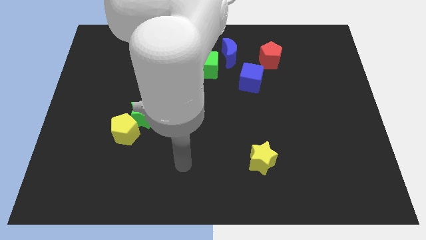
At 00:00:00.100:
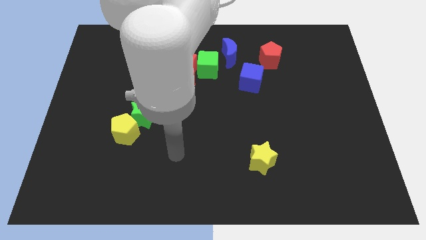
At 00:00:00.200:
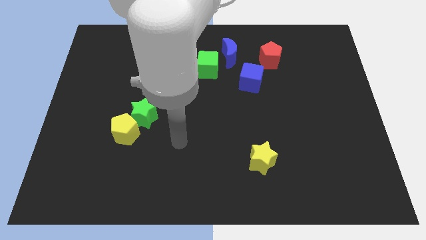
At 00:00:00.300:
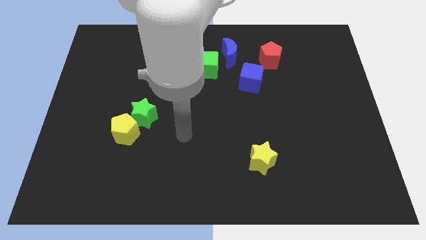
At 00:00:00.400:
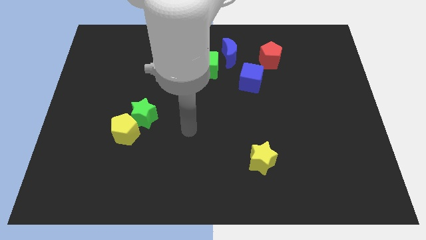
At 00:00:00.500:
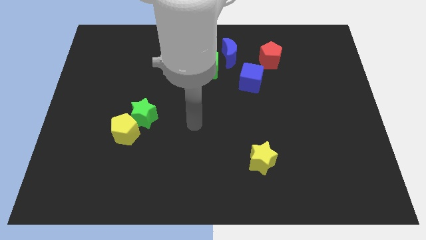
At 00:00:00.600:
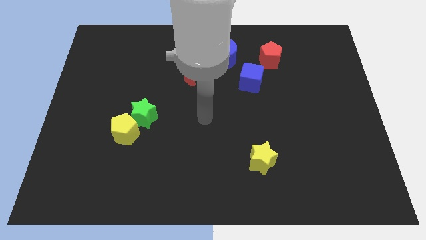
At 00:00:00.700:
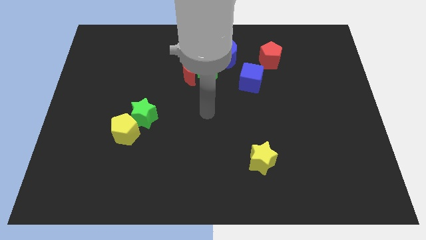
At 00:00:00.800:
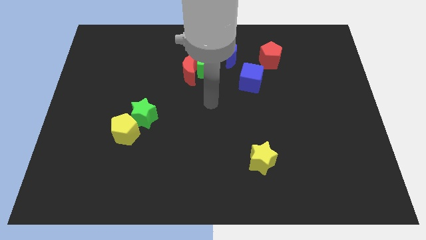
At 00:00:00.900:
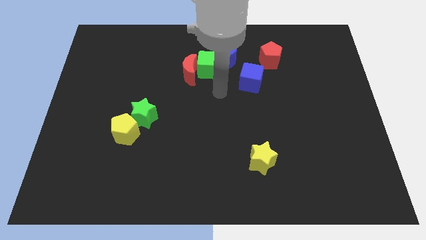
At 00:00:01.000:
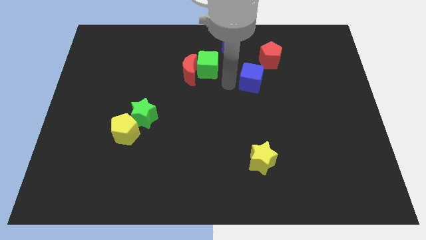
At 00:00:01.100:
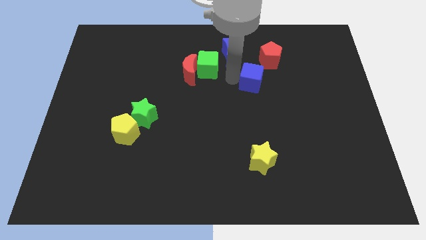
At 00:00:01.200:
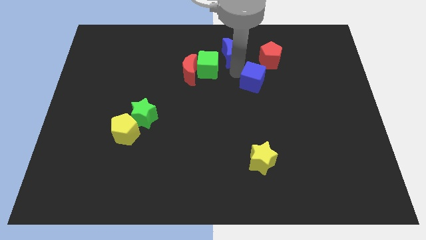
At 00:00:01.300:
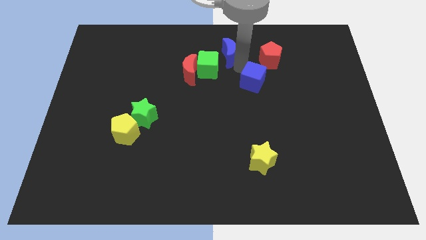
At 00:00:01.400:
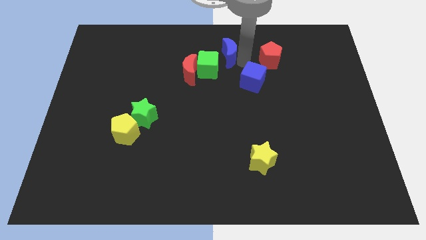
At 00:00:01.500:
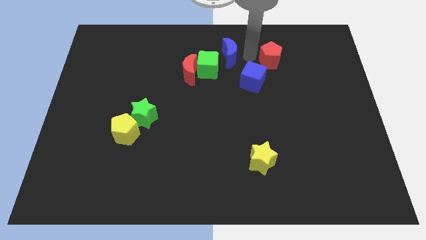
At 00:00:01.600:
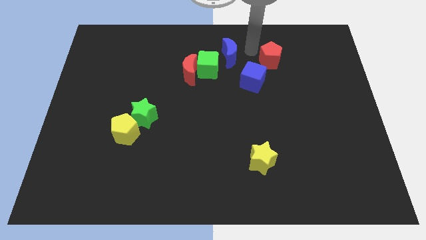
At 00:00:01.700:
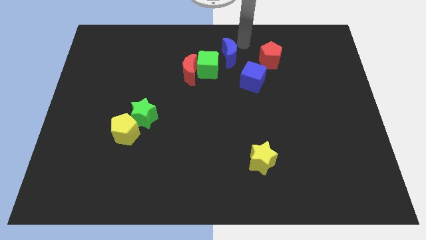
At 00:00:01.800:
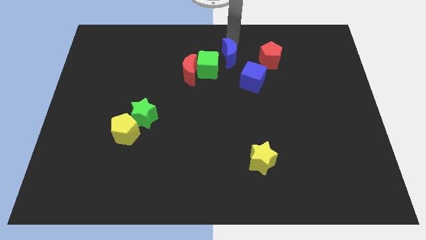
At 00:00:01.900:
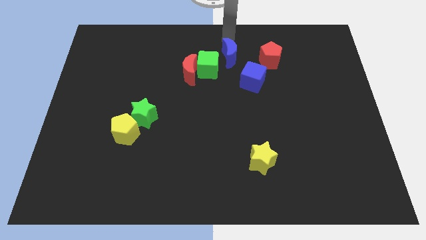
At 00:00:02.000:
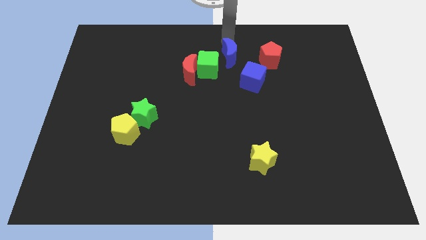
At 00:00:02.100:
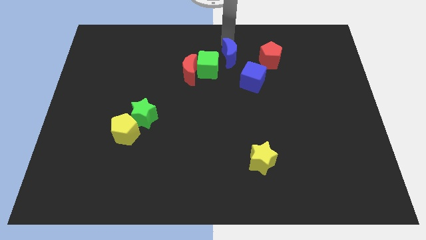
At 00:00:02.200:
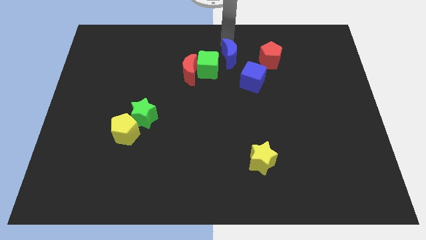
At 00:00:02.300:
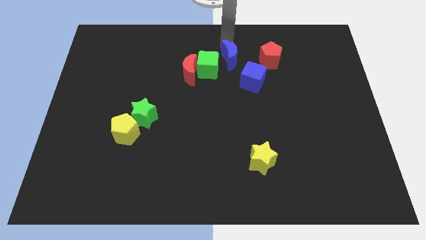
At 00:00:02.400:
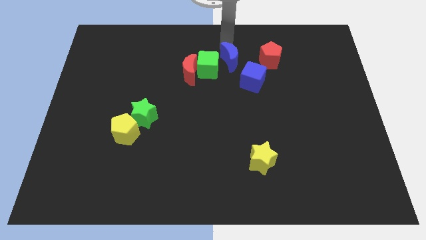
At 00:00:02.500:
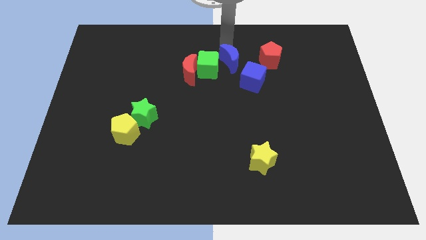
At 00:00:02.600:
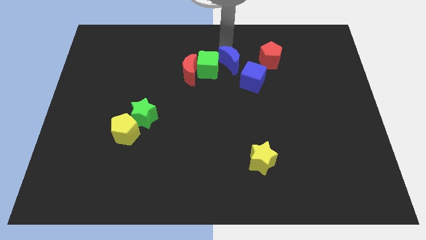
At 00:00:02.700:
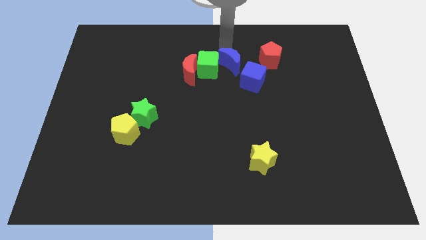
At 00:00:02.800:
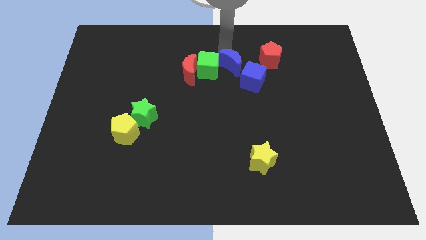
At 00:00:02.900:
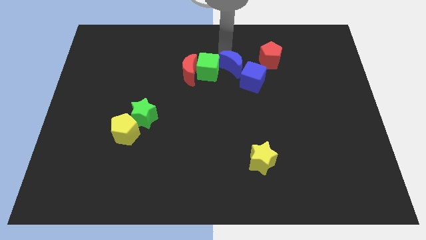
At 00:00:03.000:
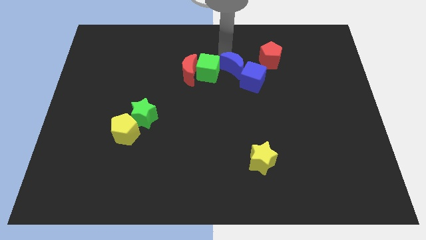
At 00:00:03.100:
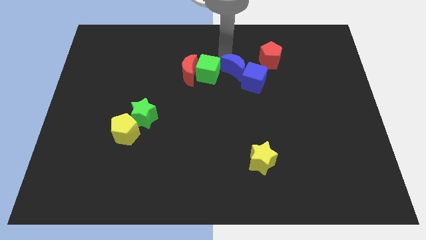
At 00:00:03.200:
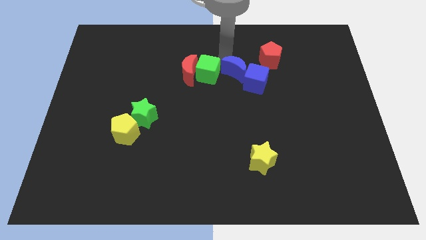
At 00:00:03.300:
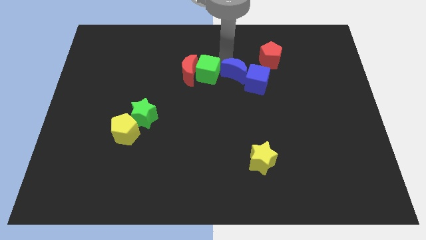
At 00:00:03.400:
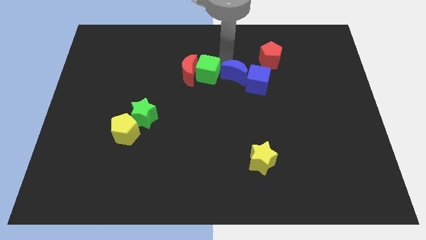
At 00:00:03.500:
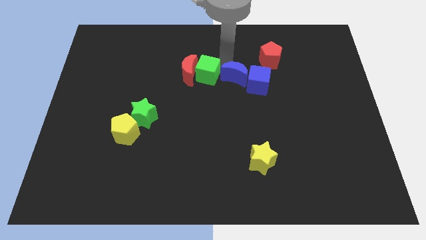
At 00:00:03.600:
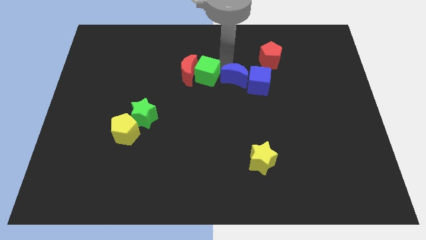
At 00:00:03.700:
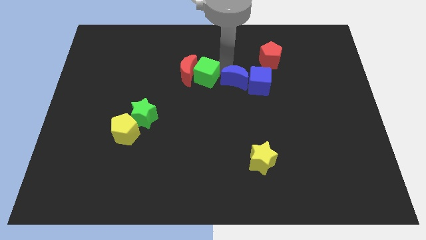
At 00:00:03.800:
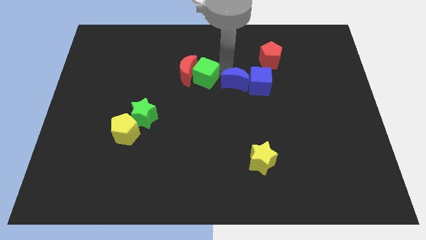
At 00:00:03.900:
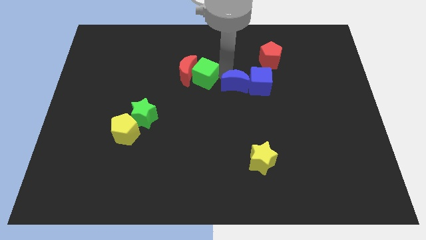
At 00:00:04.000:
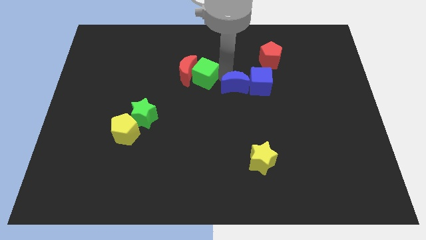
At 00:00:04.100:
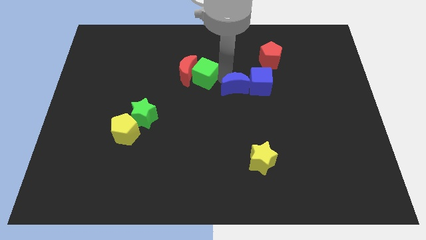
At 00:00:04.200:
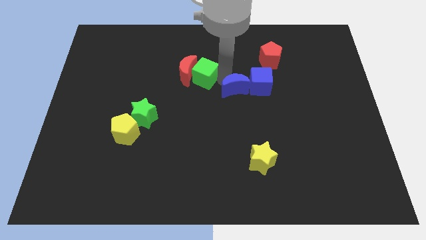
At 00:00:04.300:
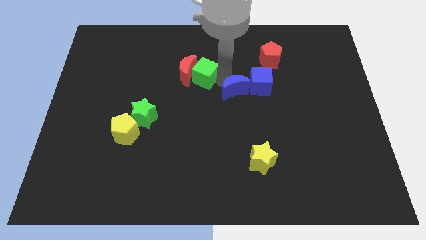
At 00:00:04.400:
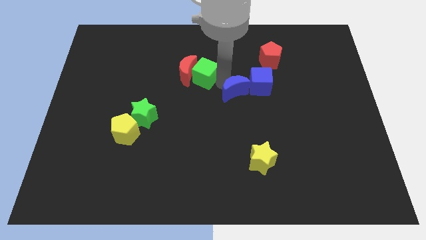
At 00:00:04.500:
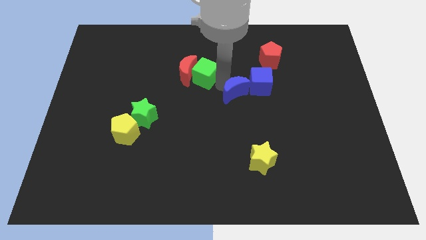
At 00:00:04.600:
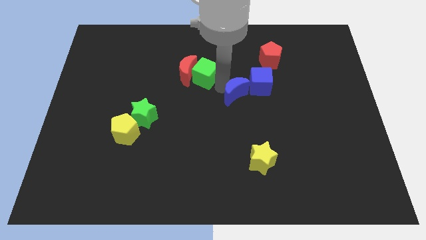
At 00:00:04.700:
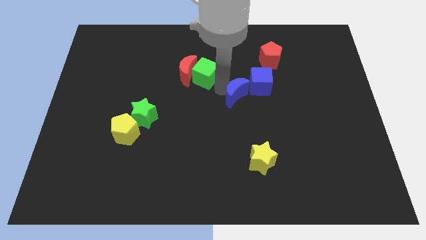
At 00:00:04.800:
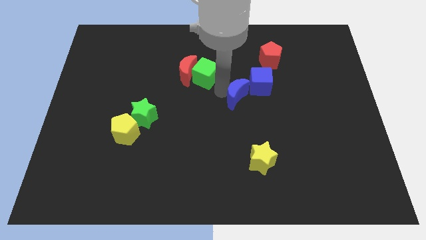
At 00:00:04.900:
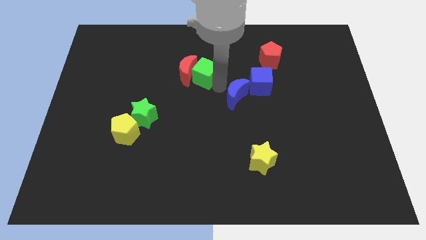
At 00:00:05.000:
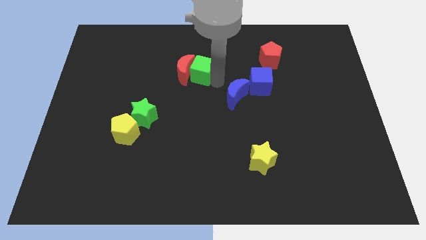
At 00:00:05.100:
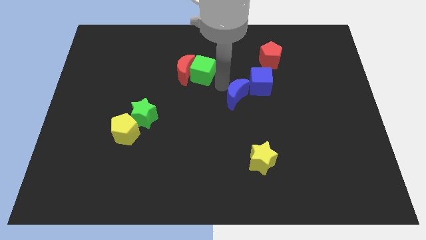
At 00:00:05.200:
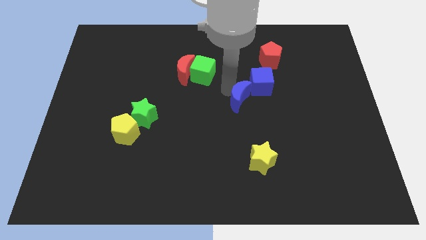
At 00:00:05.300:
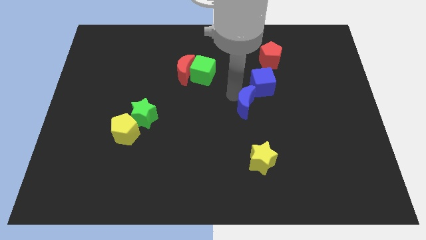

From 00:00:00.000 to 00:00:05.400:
slide the blue moon to the bottom side of the blue cube

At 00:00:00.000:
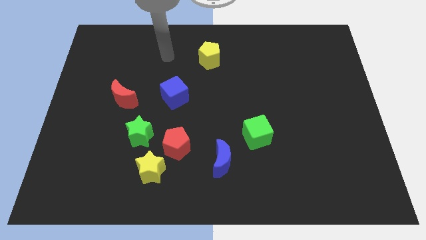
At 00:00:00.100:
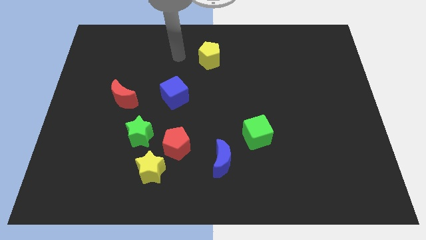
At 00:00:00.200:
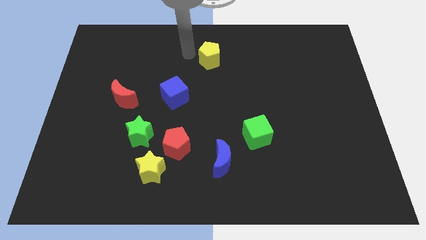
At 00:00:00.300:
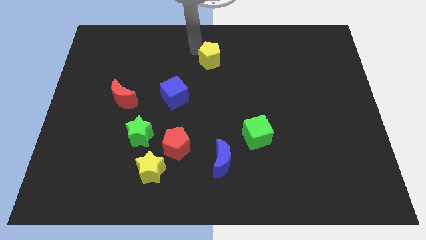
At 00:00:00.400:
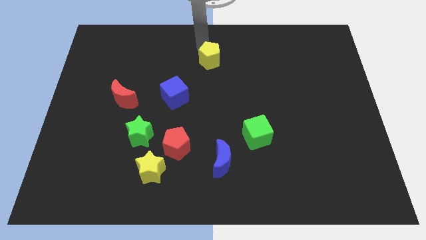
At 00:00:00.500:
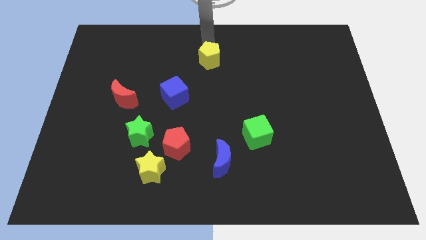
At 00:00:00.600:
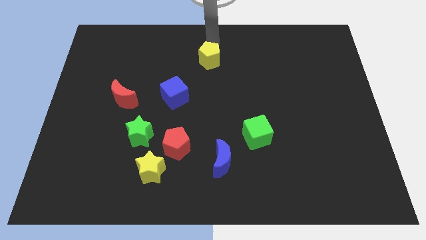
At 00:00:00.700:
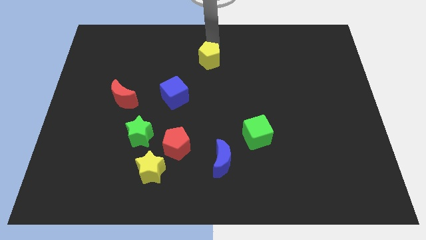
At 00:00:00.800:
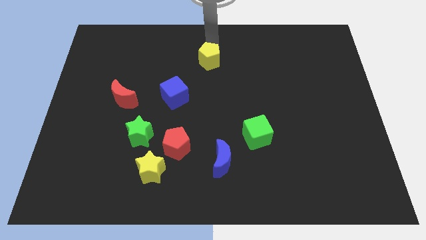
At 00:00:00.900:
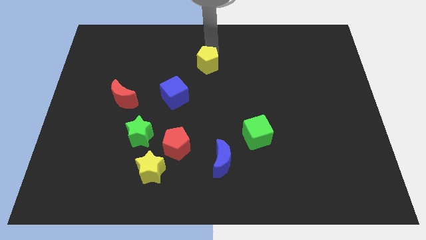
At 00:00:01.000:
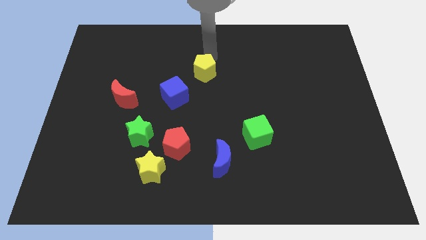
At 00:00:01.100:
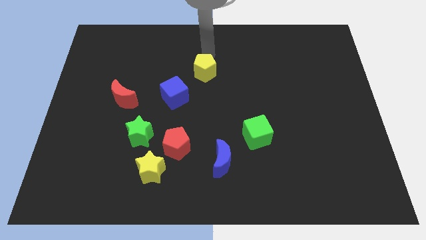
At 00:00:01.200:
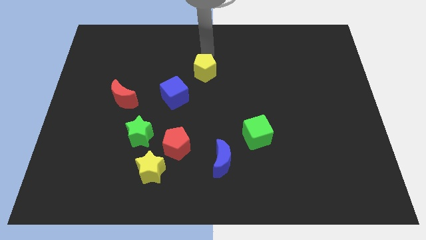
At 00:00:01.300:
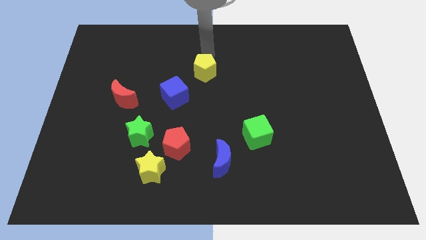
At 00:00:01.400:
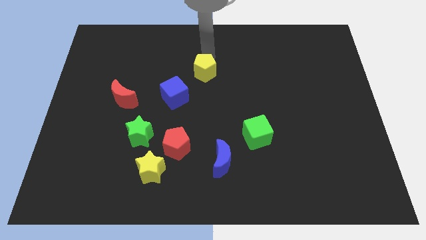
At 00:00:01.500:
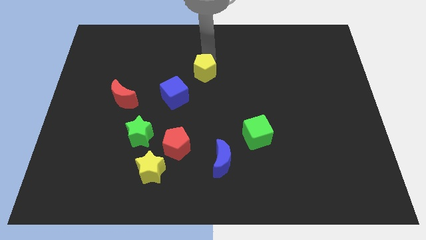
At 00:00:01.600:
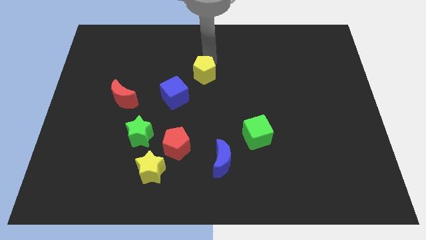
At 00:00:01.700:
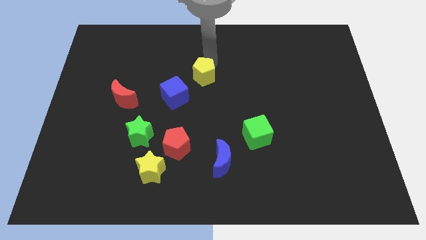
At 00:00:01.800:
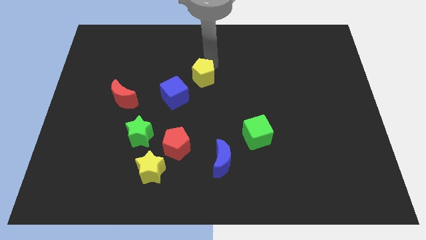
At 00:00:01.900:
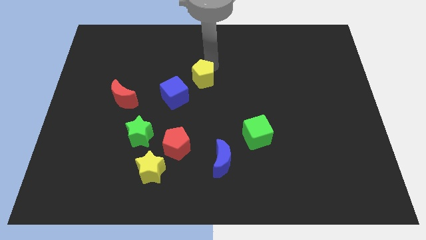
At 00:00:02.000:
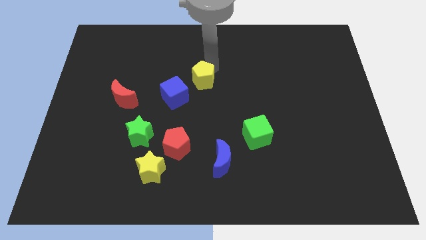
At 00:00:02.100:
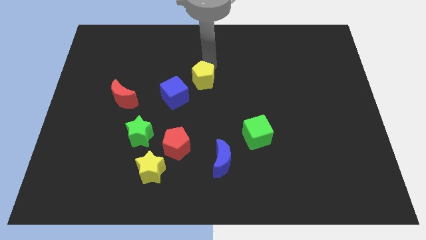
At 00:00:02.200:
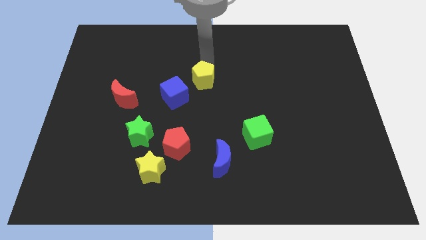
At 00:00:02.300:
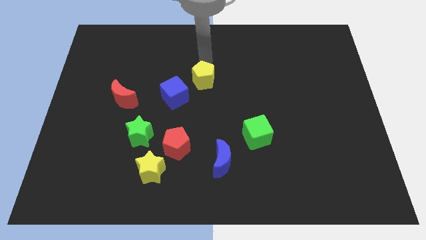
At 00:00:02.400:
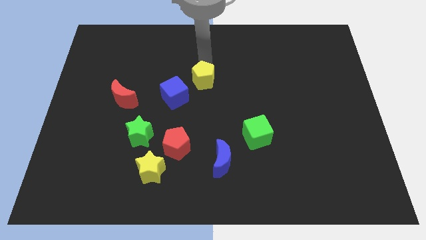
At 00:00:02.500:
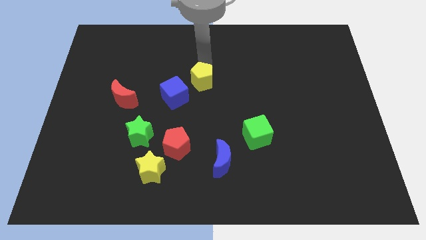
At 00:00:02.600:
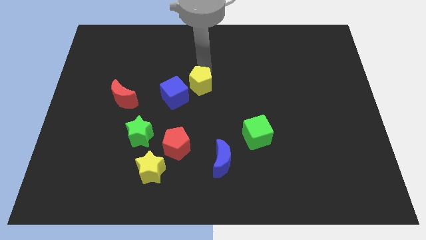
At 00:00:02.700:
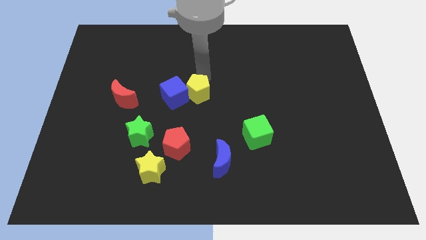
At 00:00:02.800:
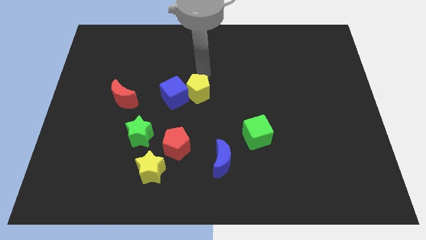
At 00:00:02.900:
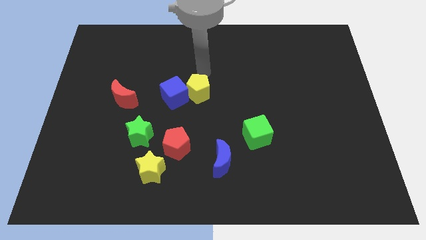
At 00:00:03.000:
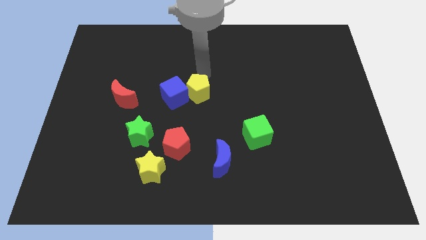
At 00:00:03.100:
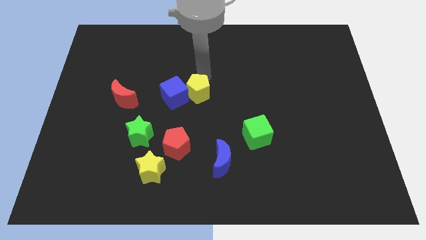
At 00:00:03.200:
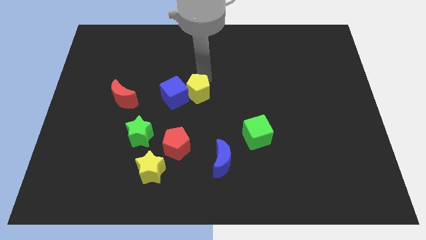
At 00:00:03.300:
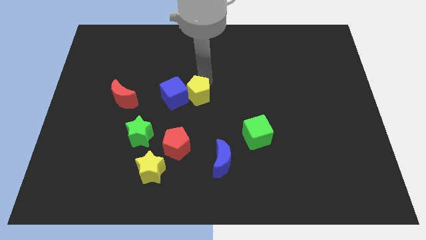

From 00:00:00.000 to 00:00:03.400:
move the yellow pentagon to the bottom right of the blue cube
